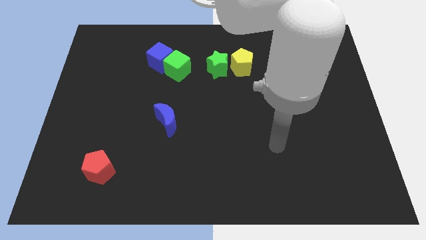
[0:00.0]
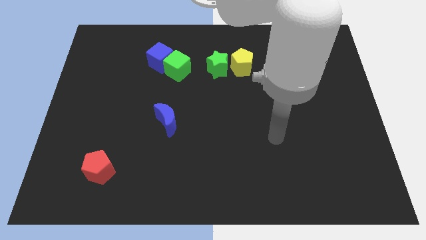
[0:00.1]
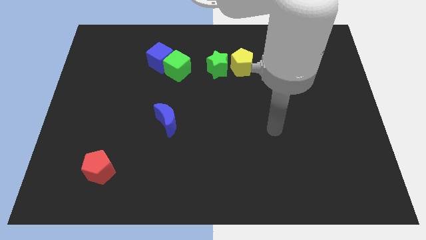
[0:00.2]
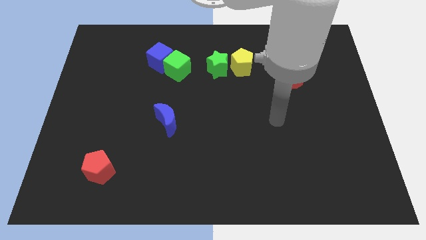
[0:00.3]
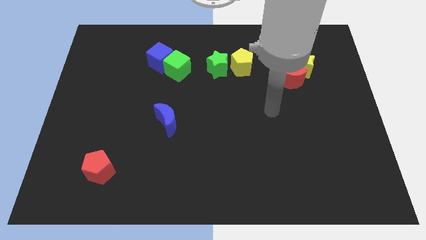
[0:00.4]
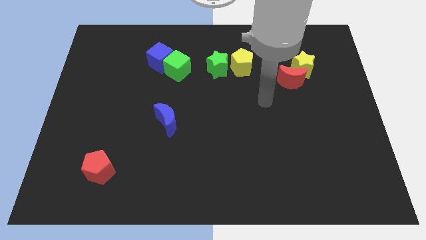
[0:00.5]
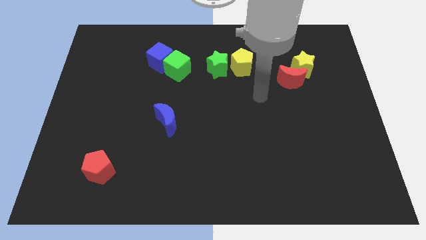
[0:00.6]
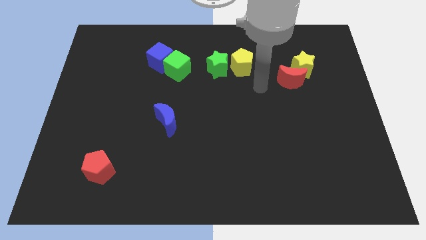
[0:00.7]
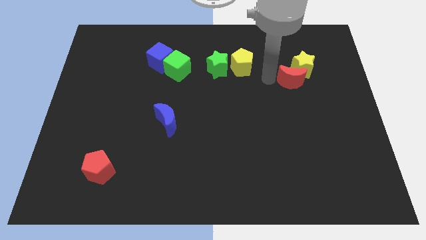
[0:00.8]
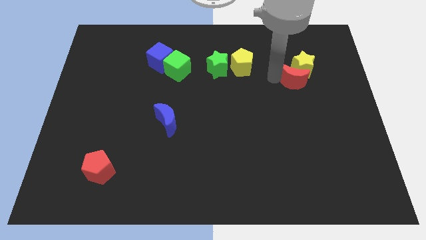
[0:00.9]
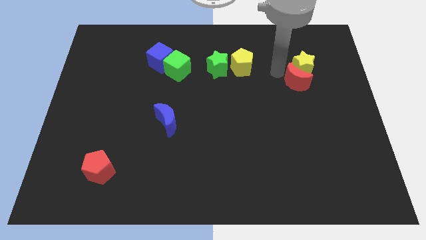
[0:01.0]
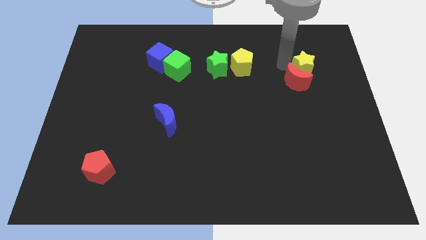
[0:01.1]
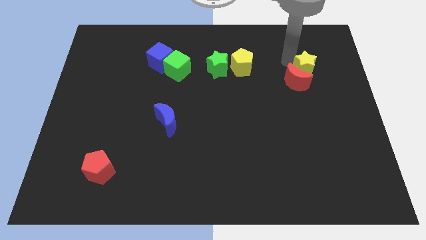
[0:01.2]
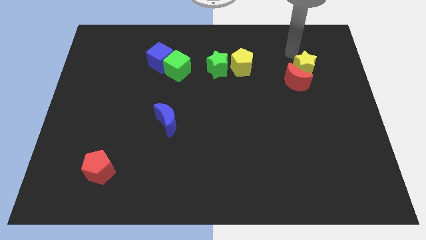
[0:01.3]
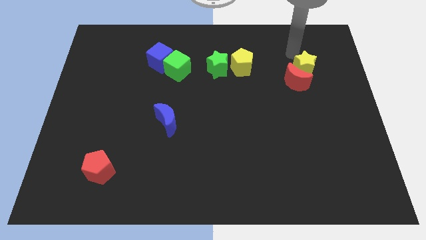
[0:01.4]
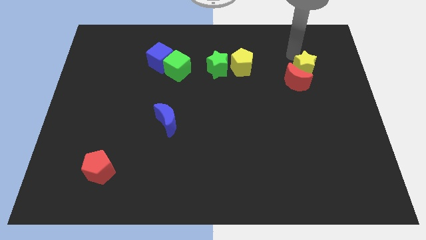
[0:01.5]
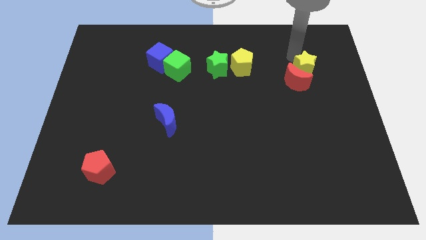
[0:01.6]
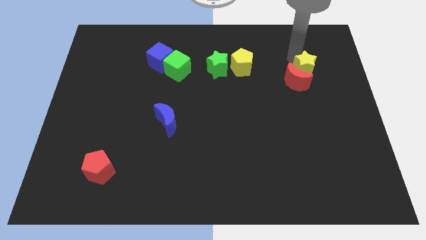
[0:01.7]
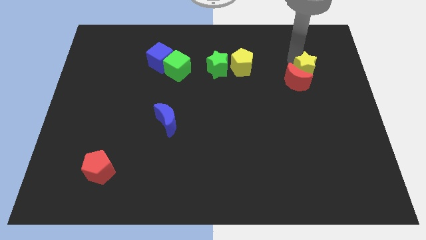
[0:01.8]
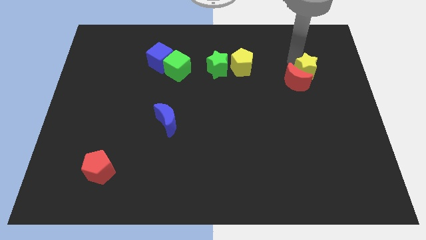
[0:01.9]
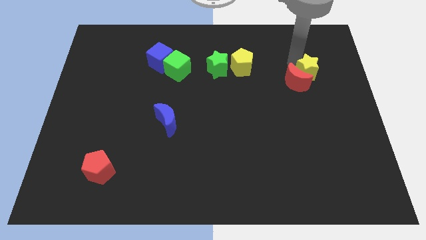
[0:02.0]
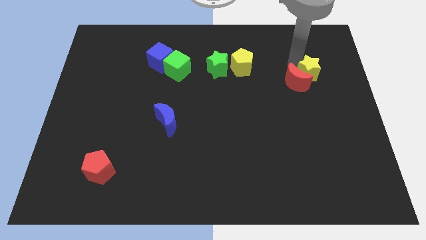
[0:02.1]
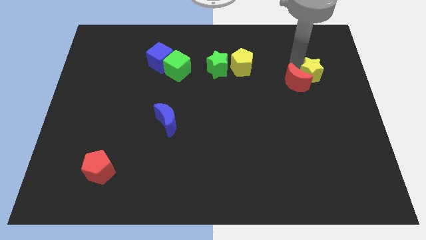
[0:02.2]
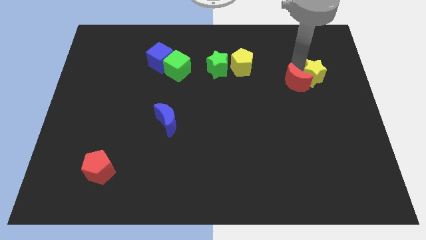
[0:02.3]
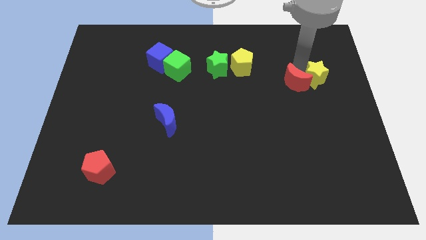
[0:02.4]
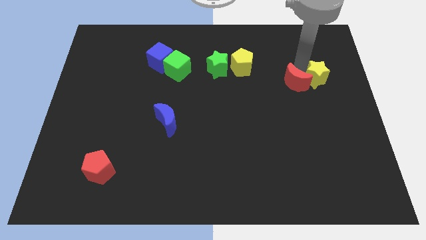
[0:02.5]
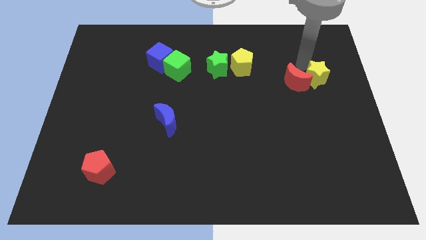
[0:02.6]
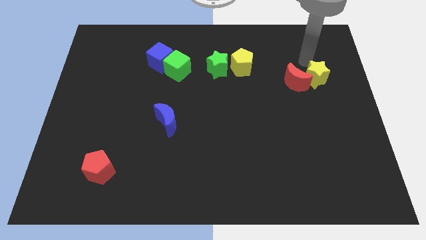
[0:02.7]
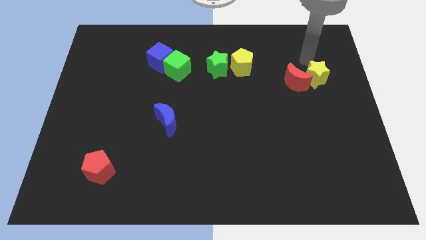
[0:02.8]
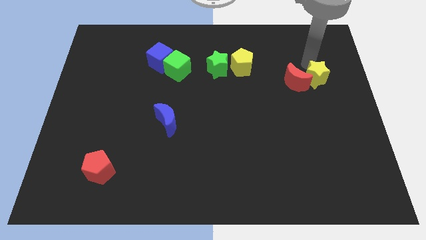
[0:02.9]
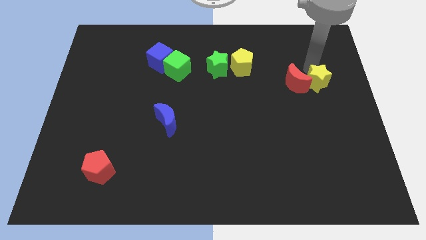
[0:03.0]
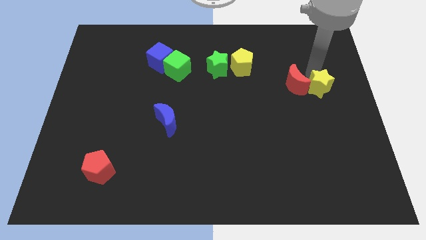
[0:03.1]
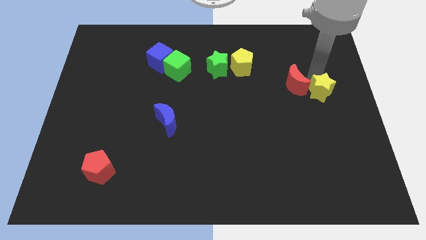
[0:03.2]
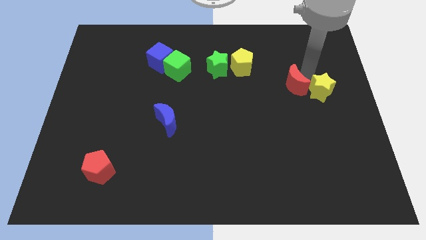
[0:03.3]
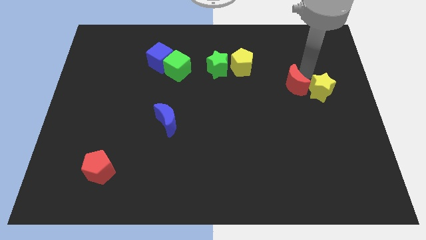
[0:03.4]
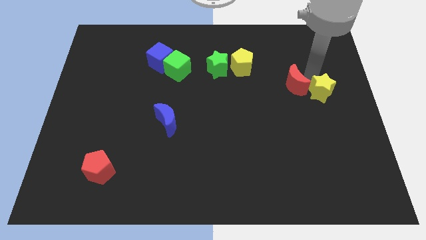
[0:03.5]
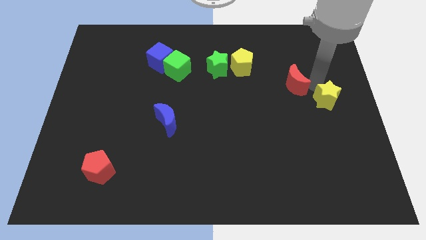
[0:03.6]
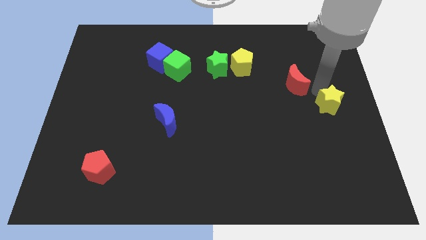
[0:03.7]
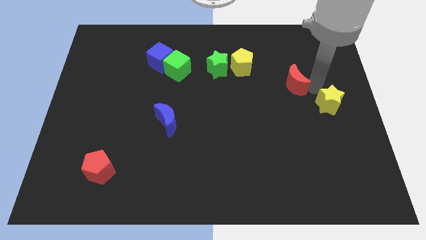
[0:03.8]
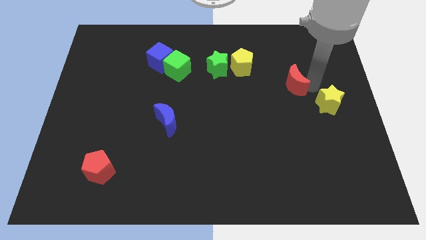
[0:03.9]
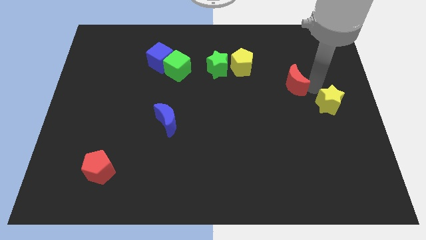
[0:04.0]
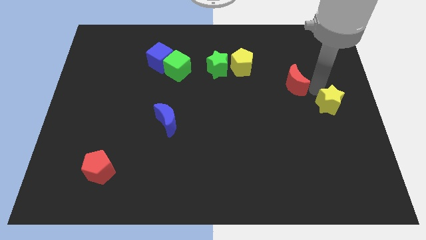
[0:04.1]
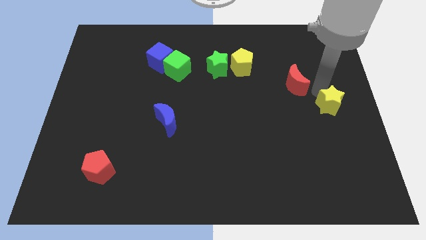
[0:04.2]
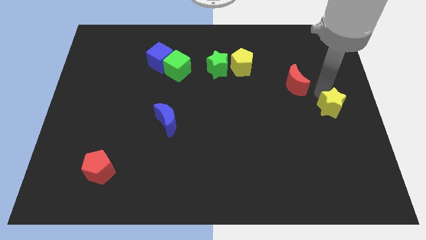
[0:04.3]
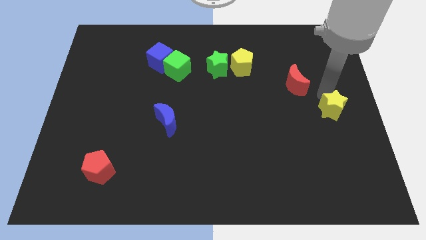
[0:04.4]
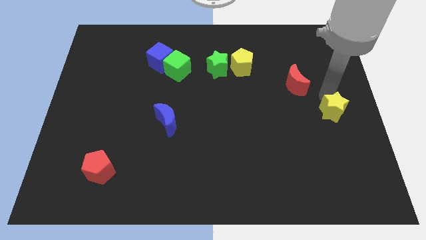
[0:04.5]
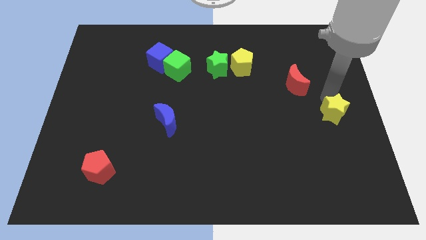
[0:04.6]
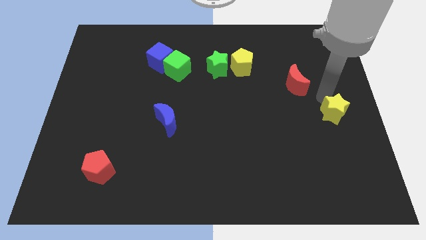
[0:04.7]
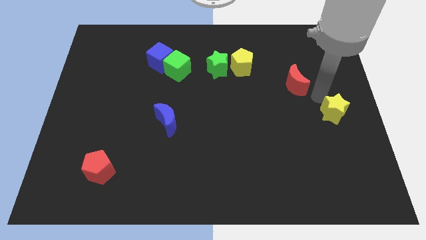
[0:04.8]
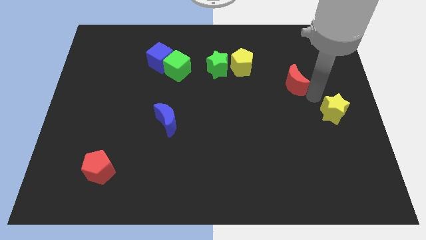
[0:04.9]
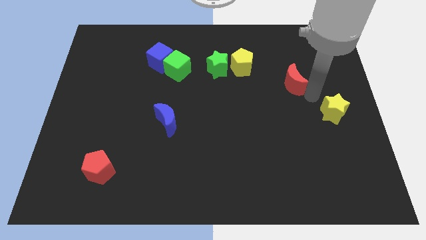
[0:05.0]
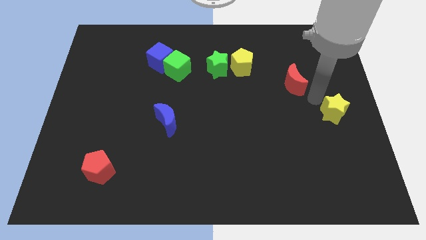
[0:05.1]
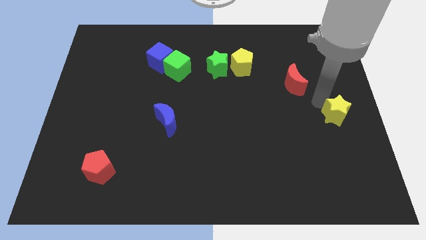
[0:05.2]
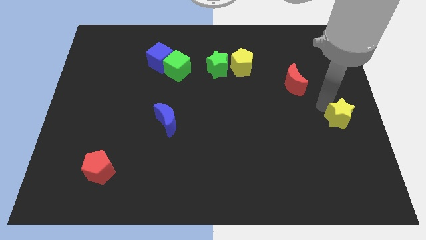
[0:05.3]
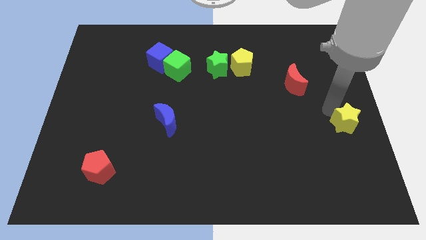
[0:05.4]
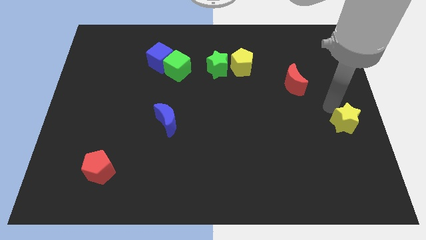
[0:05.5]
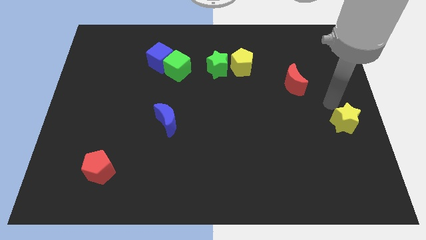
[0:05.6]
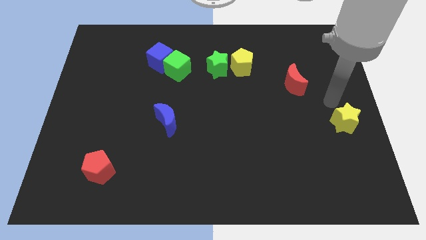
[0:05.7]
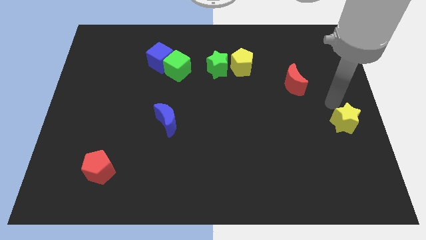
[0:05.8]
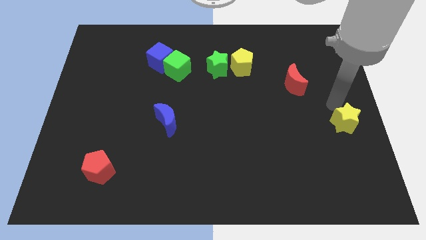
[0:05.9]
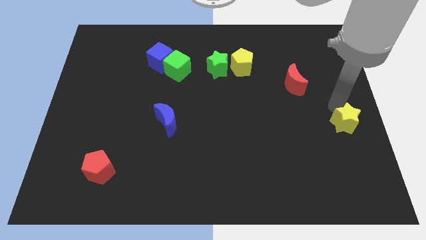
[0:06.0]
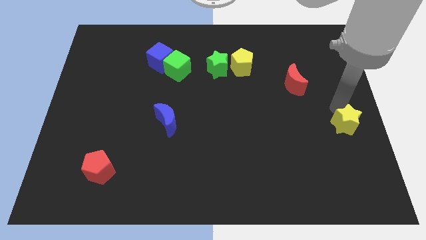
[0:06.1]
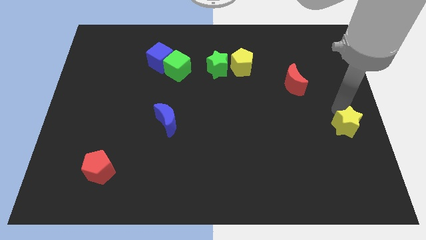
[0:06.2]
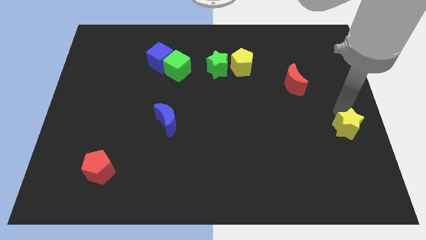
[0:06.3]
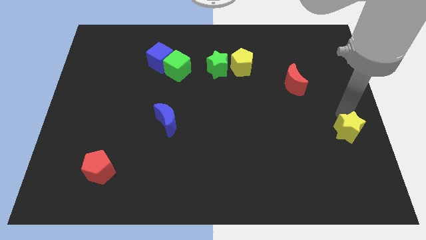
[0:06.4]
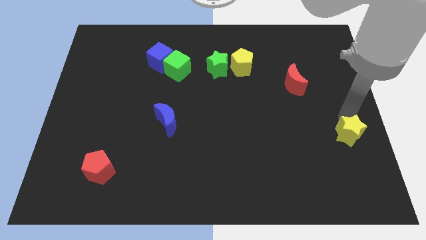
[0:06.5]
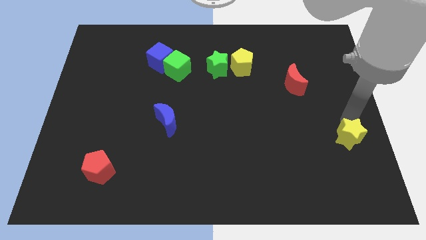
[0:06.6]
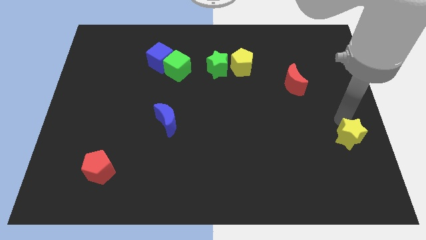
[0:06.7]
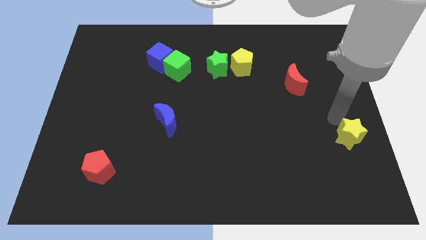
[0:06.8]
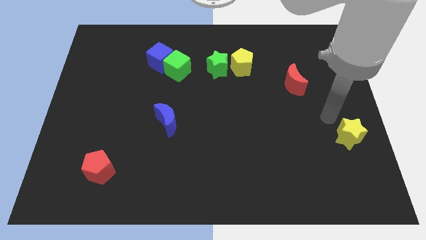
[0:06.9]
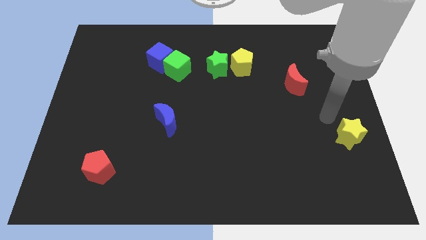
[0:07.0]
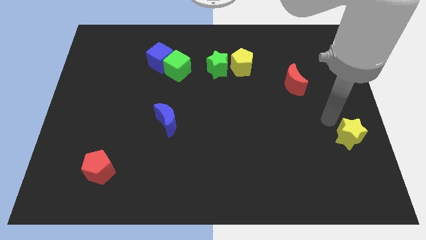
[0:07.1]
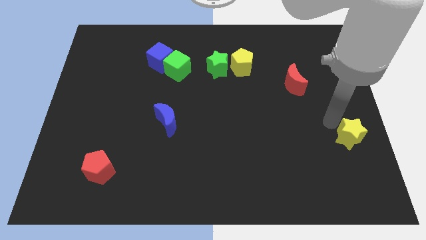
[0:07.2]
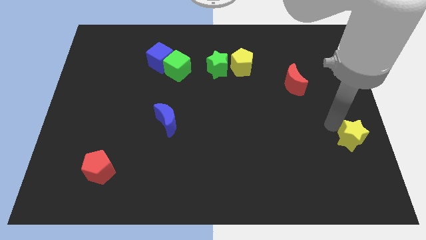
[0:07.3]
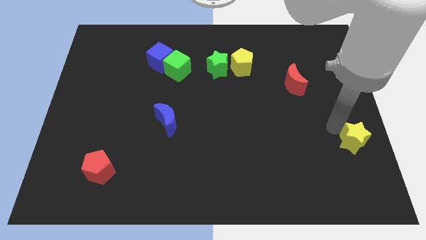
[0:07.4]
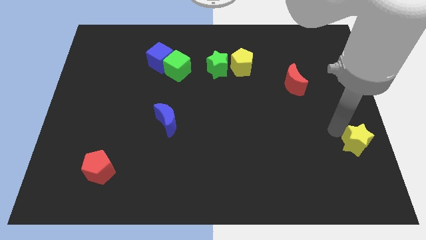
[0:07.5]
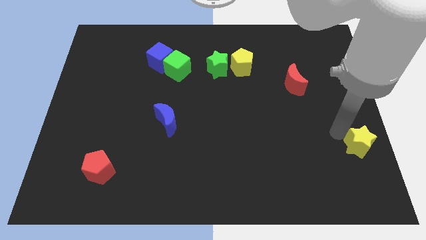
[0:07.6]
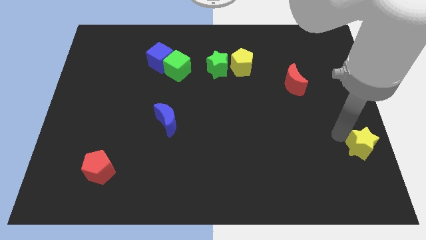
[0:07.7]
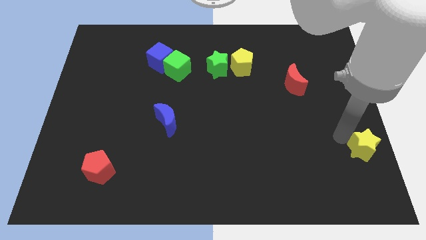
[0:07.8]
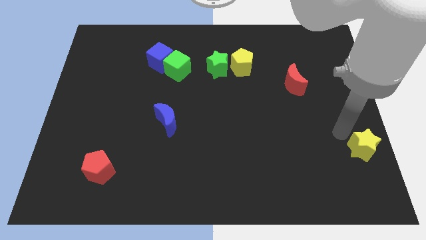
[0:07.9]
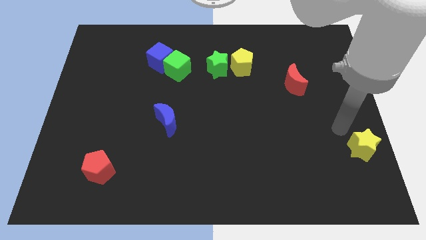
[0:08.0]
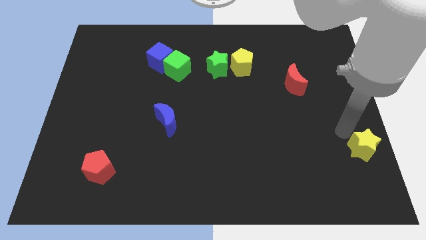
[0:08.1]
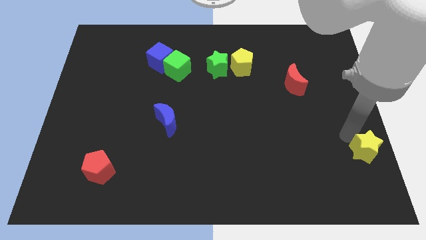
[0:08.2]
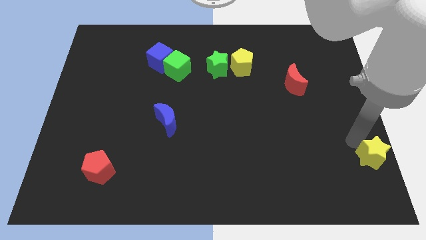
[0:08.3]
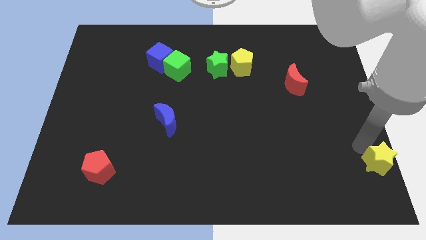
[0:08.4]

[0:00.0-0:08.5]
slide the yellow star to the bottom right
